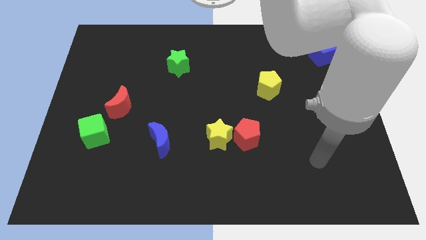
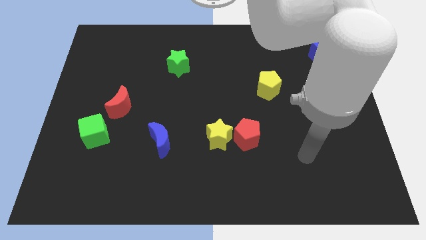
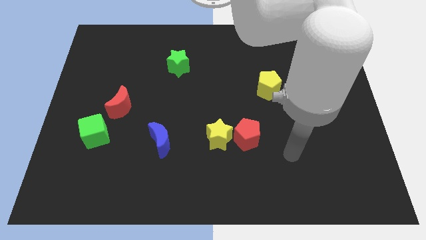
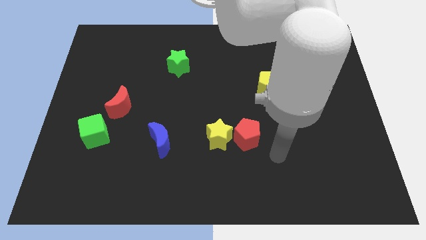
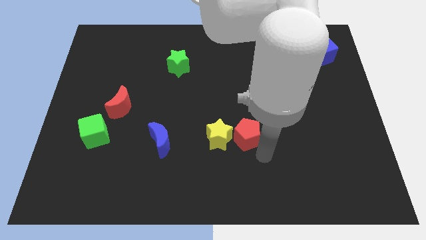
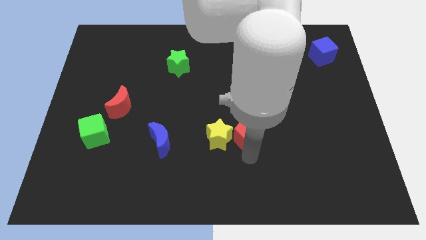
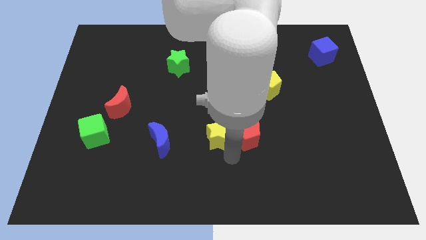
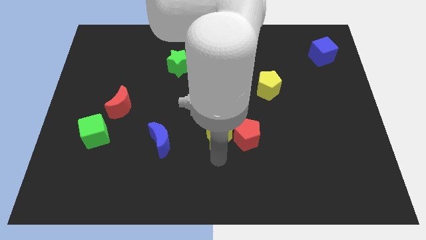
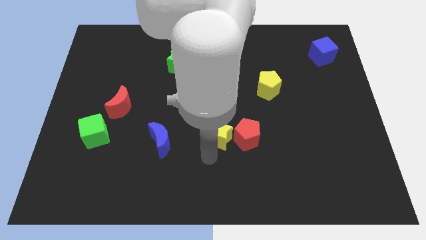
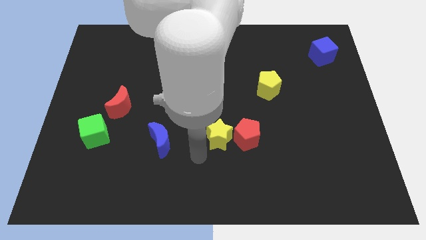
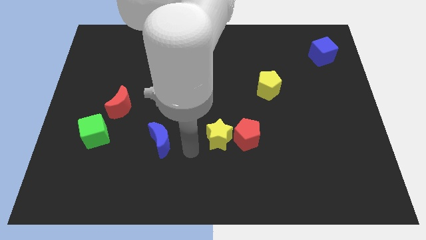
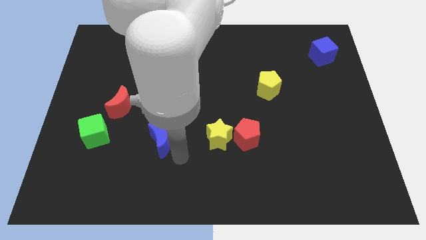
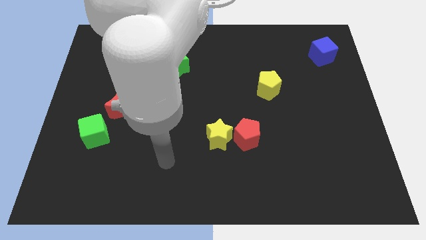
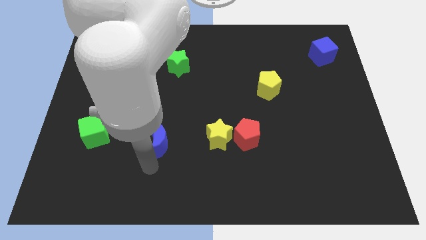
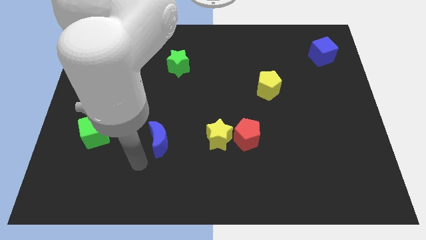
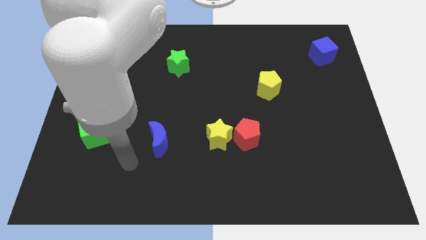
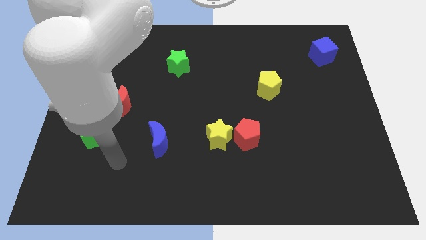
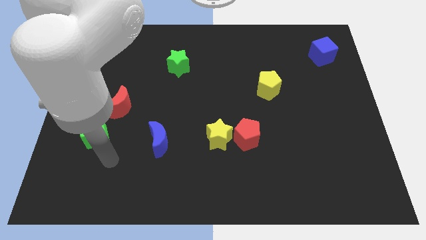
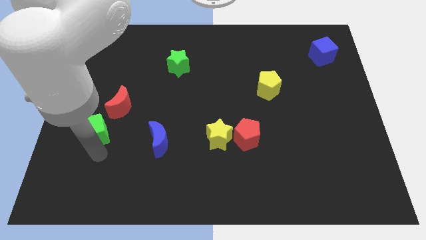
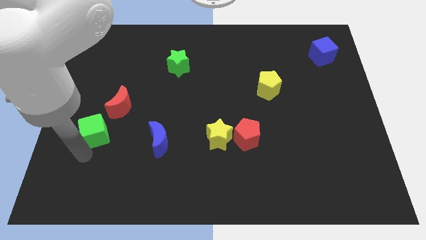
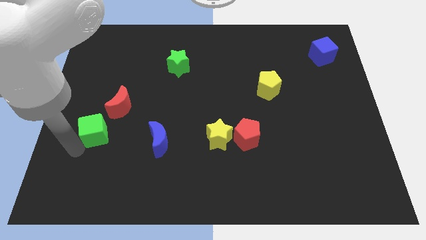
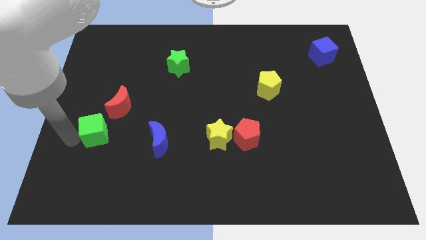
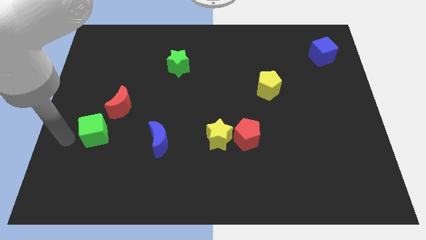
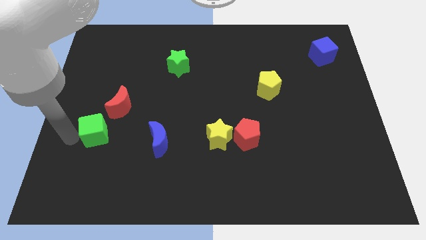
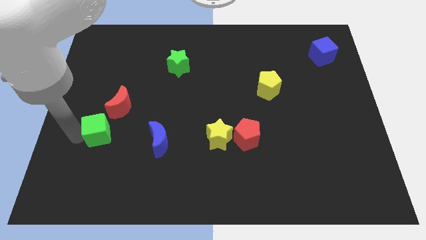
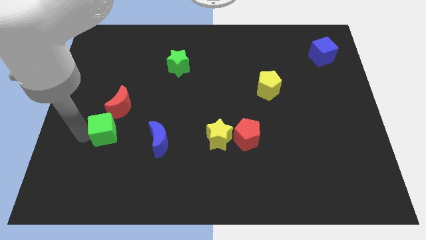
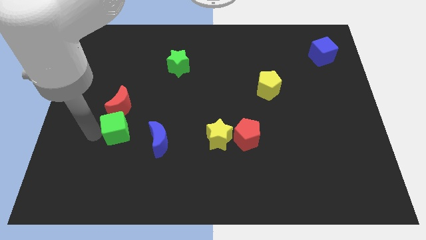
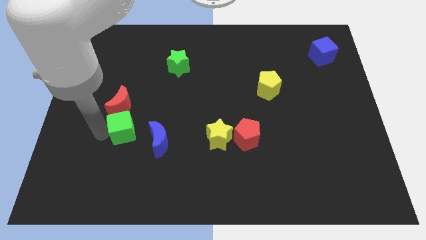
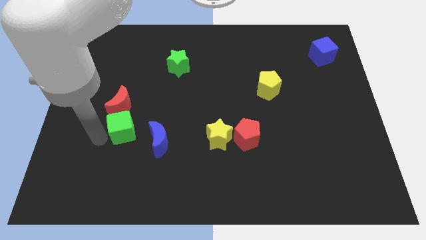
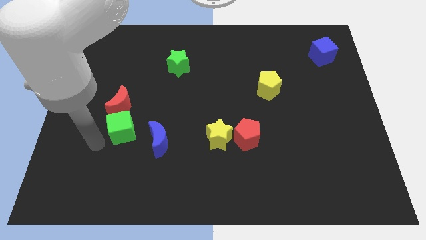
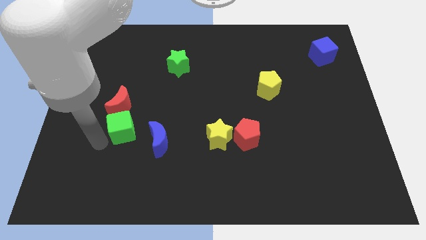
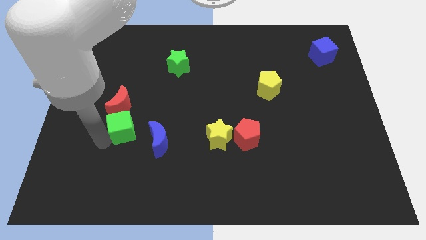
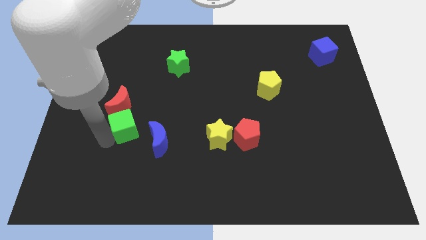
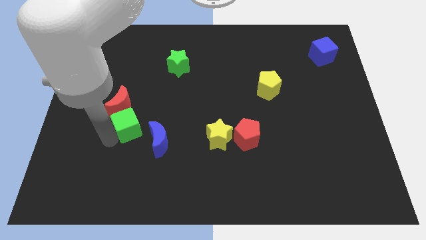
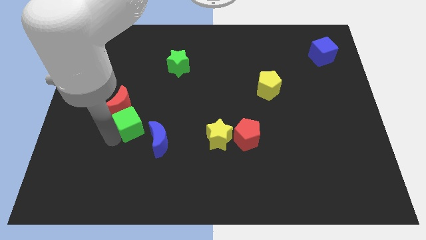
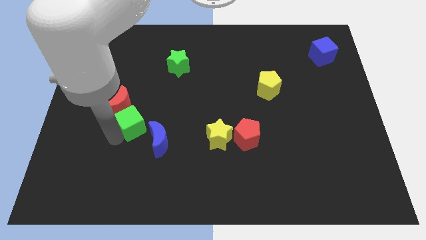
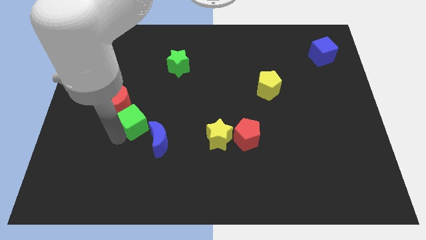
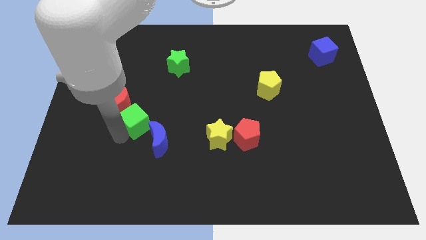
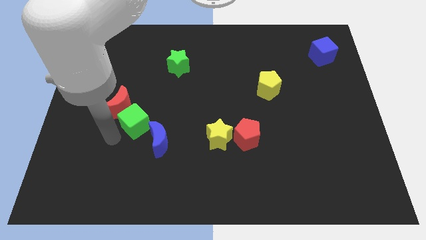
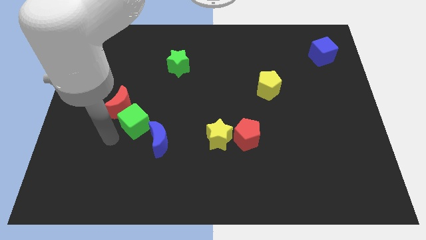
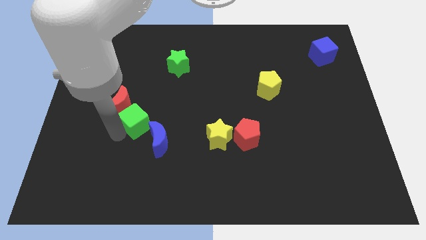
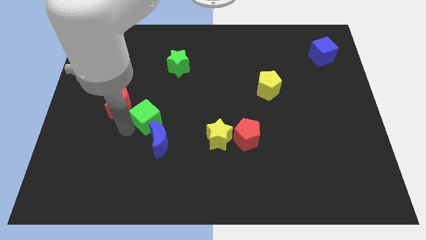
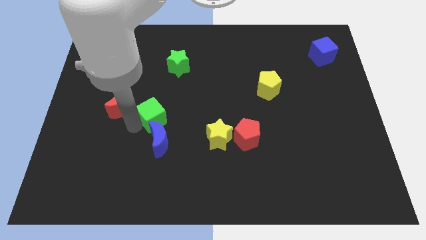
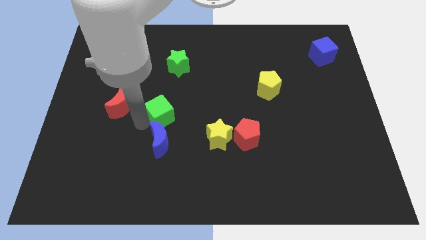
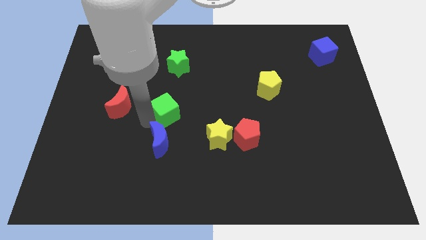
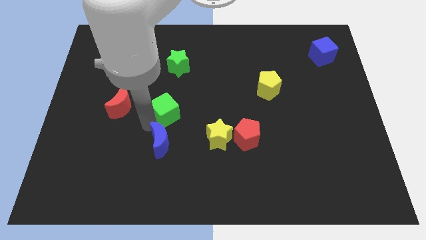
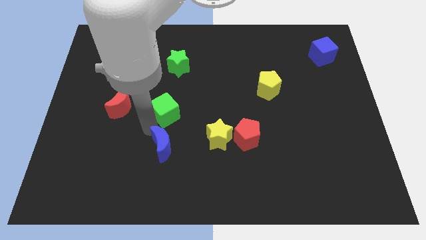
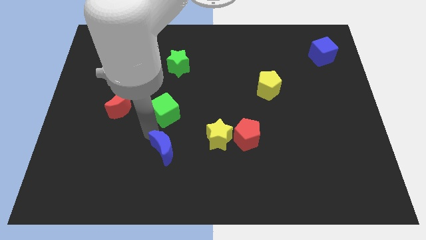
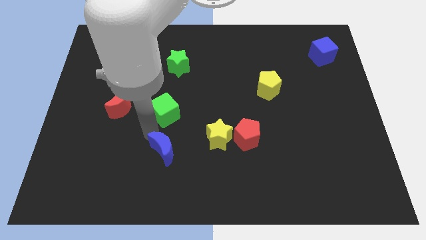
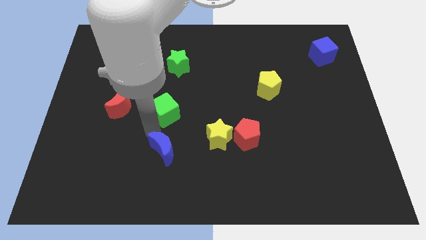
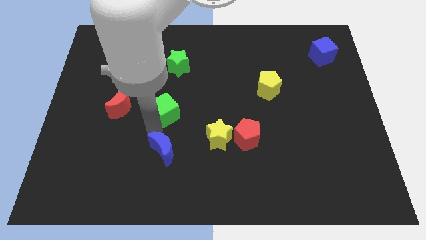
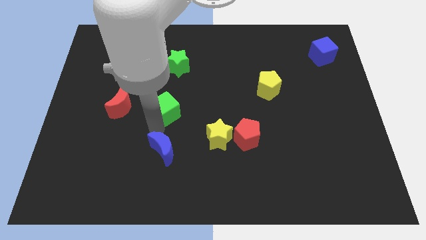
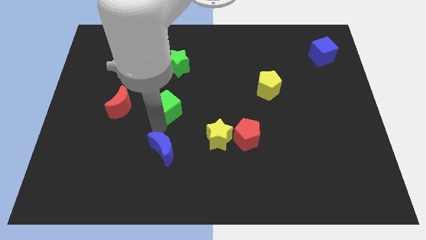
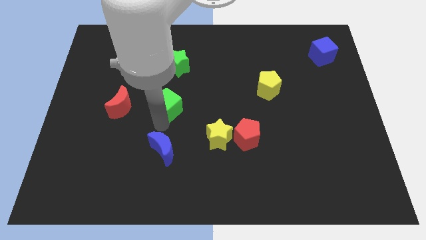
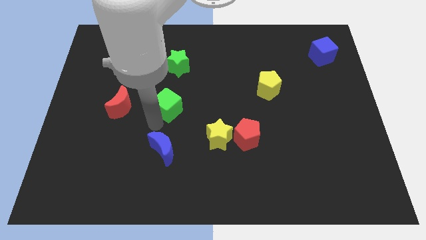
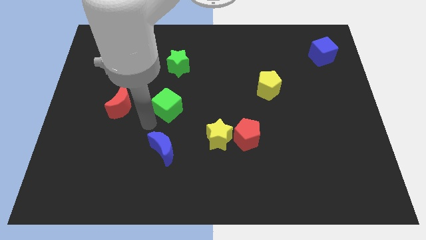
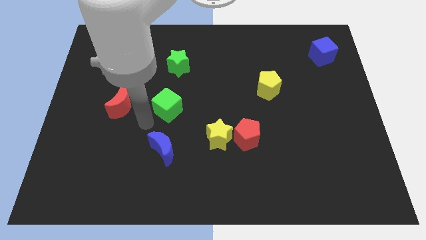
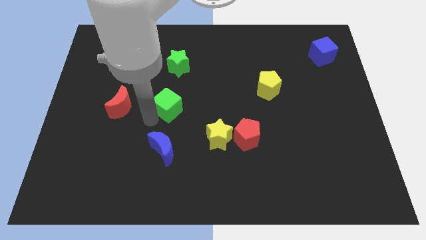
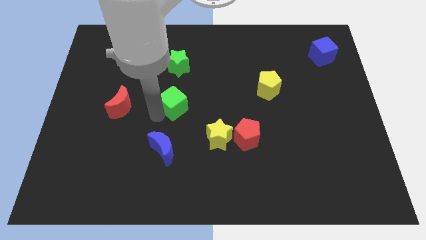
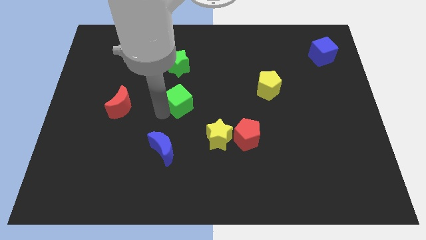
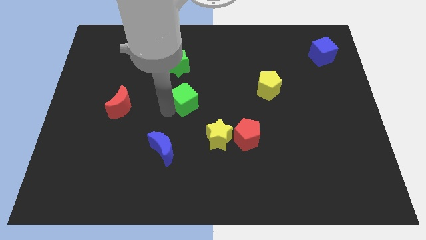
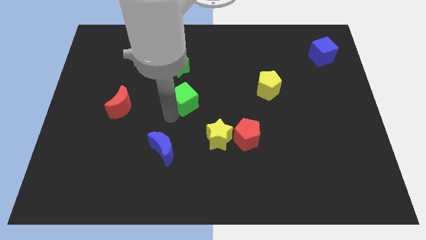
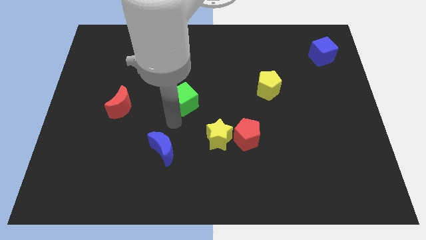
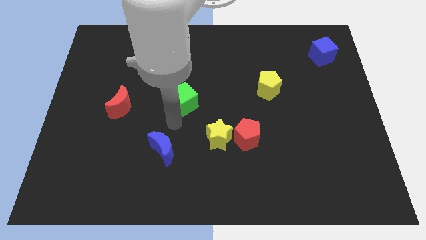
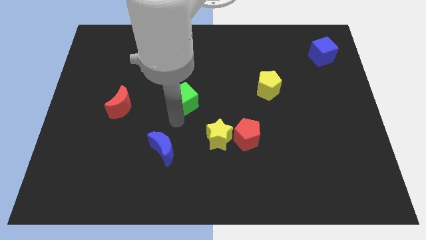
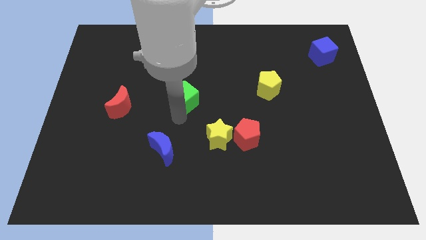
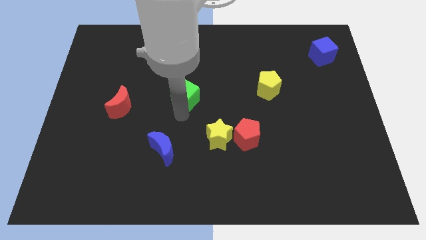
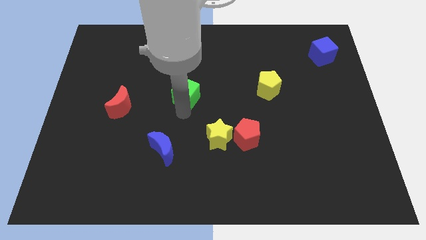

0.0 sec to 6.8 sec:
move the green cube upwards and then right

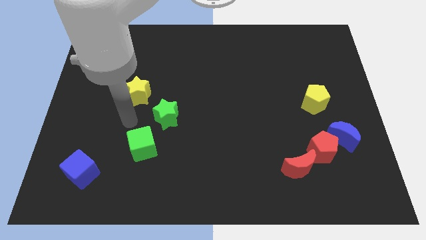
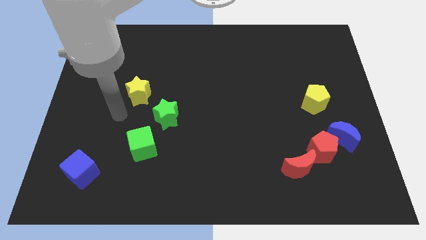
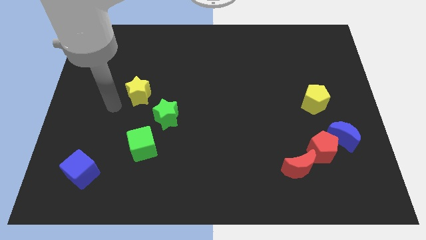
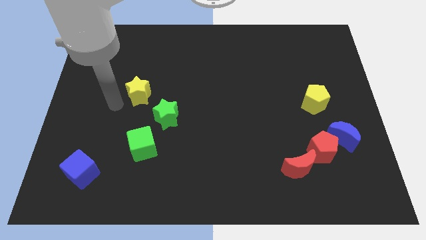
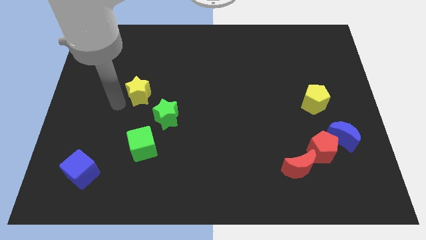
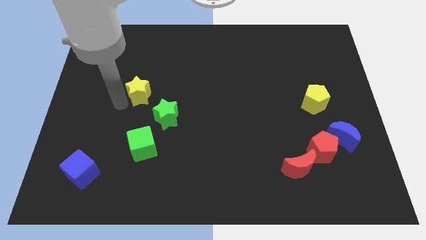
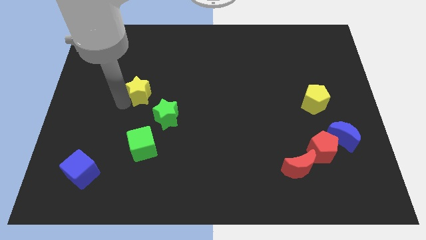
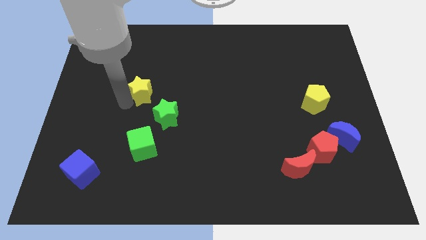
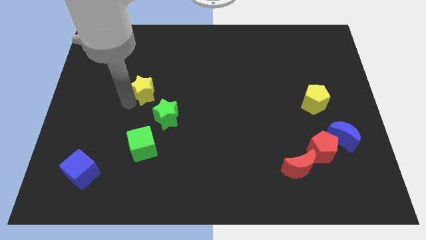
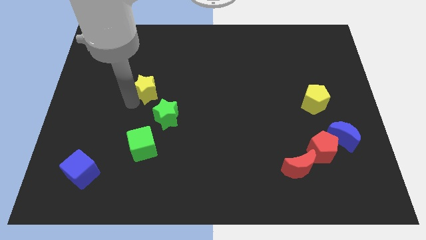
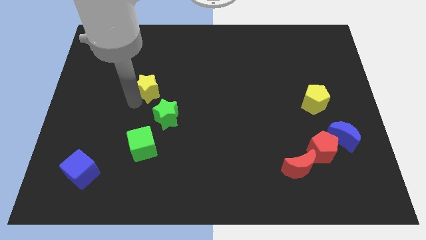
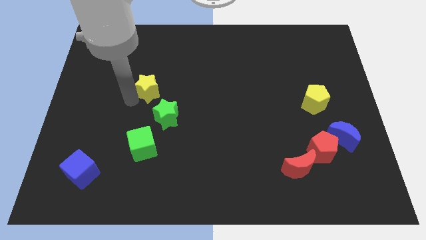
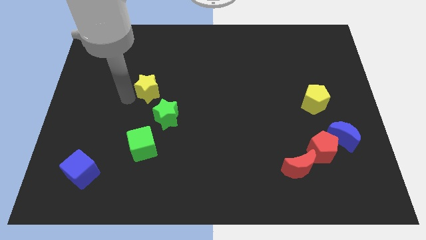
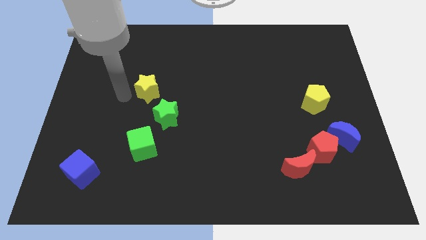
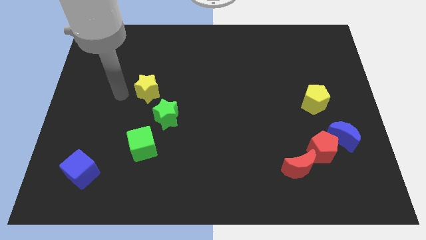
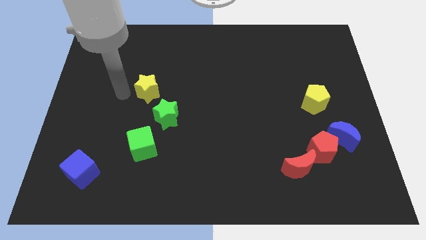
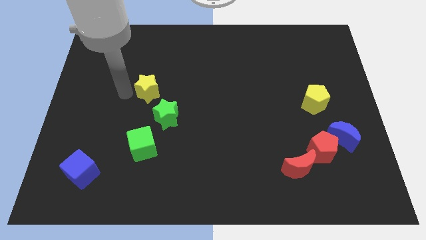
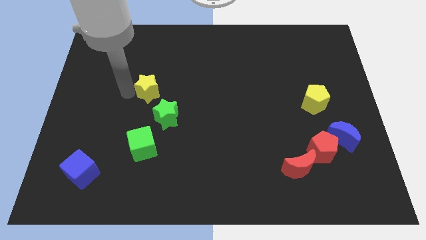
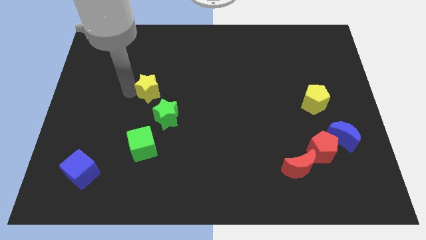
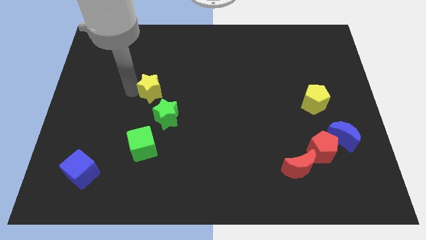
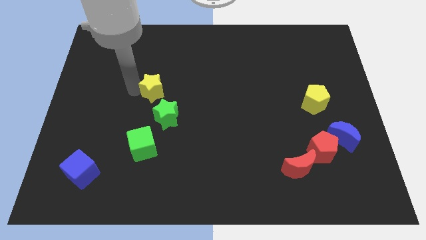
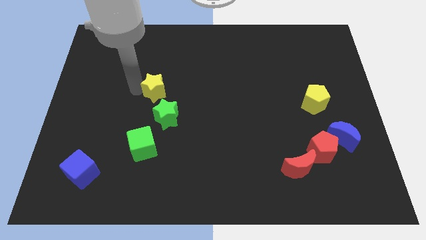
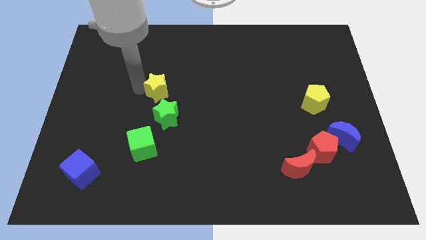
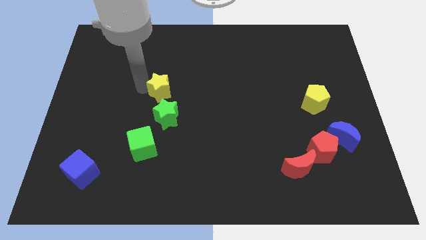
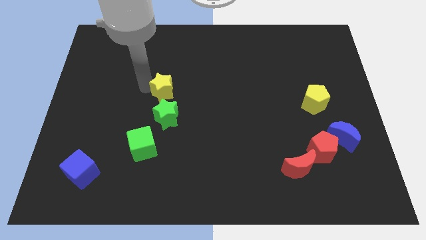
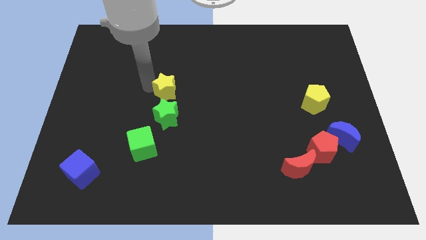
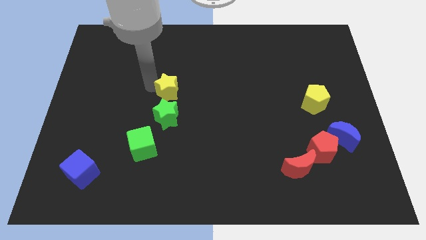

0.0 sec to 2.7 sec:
slightly push the yellow star to the right
